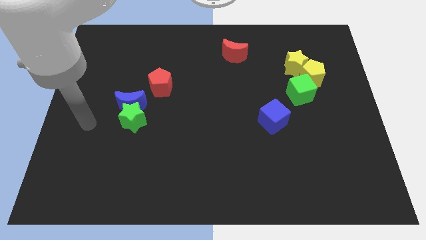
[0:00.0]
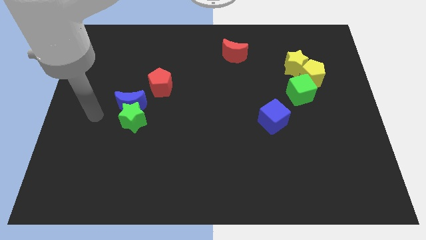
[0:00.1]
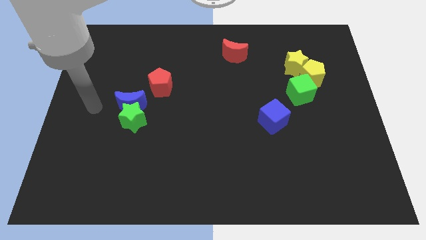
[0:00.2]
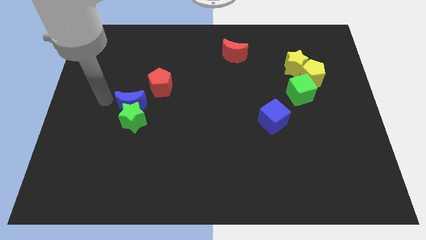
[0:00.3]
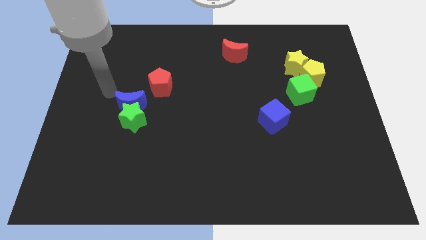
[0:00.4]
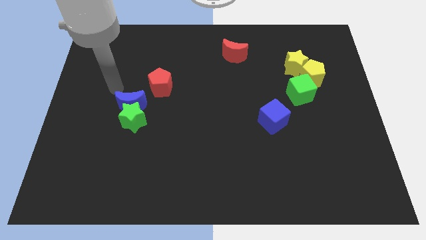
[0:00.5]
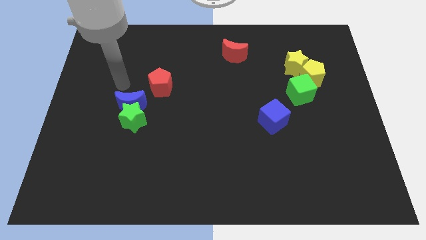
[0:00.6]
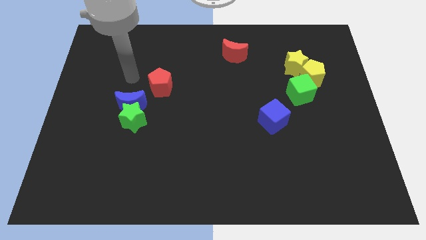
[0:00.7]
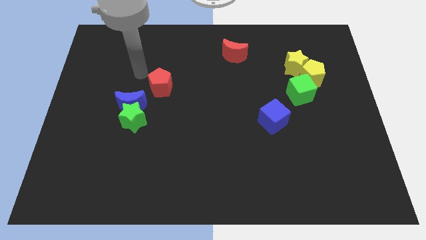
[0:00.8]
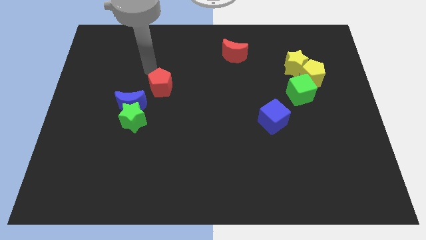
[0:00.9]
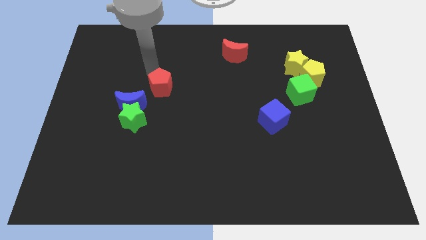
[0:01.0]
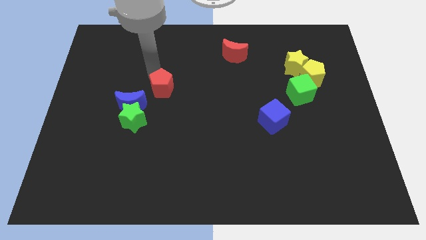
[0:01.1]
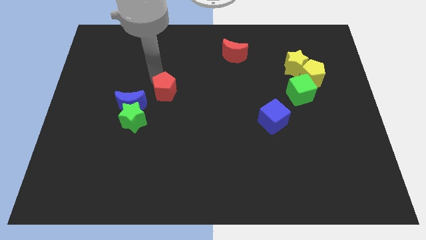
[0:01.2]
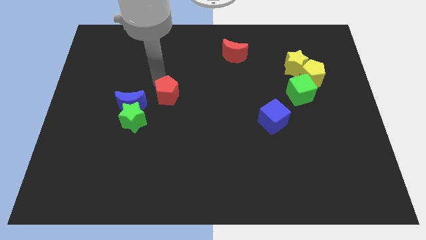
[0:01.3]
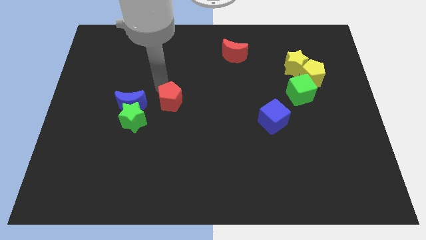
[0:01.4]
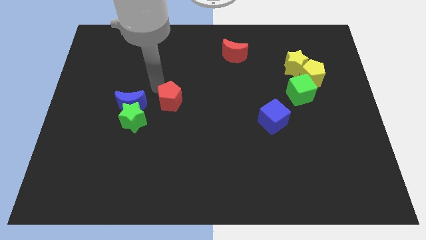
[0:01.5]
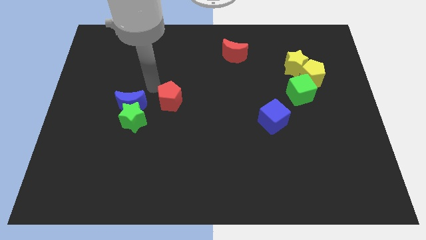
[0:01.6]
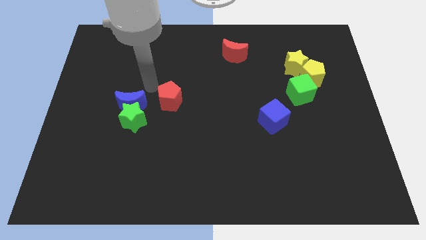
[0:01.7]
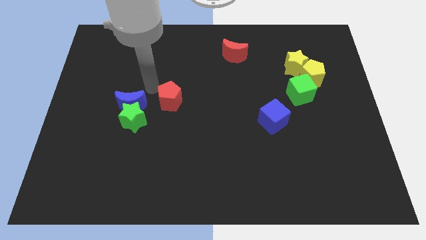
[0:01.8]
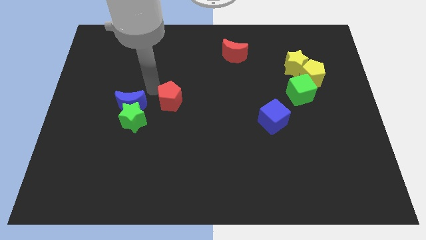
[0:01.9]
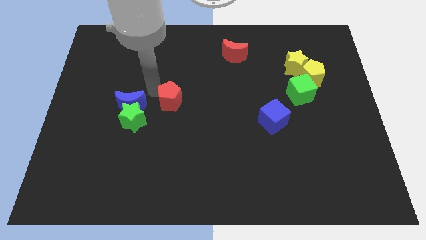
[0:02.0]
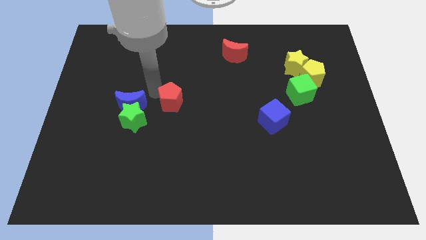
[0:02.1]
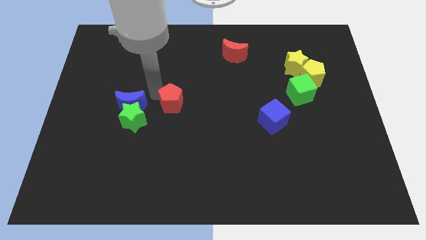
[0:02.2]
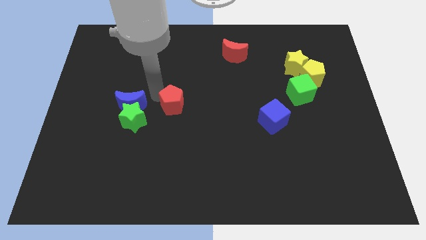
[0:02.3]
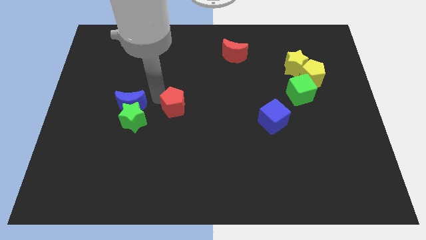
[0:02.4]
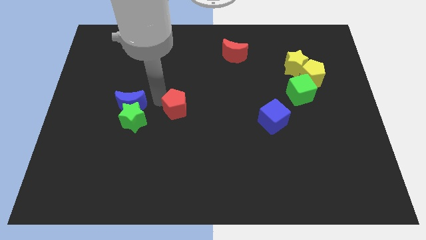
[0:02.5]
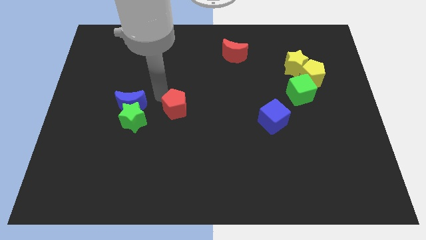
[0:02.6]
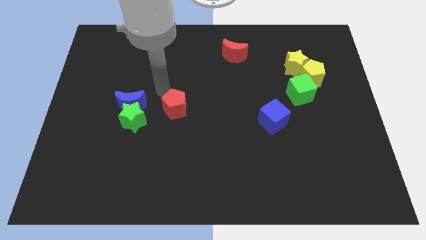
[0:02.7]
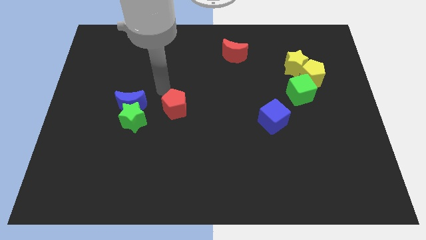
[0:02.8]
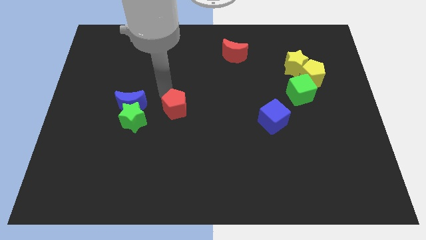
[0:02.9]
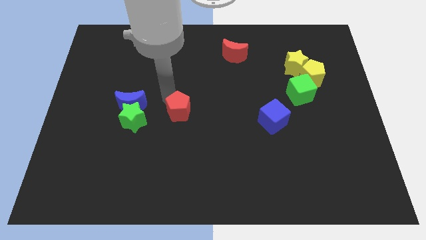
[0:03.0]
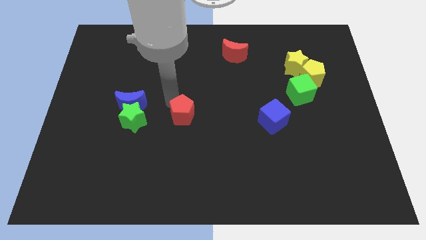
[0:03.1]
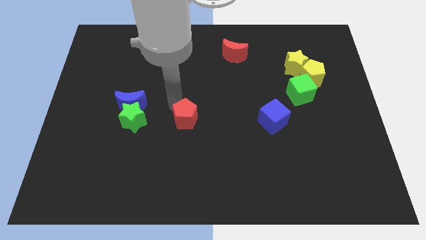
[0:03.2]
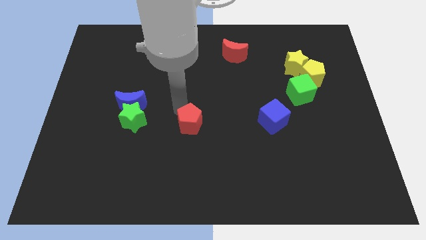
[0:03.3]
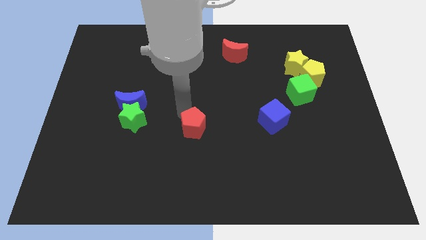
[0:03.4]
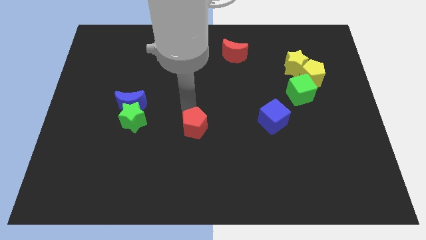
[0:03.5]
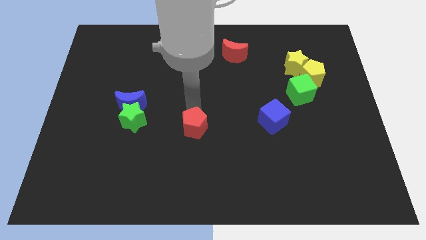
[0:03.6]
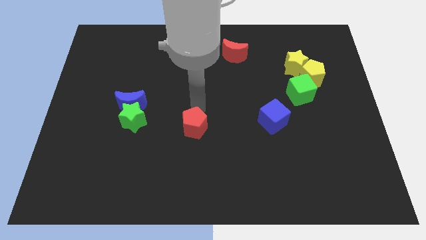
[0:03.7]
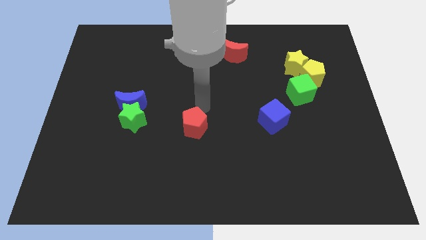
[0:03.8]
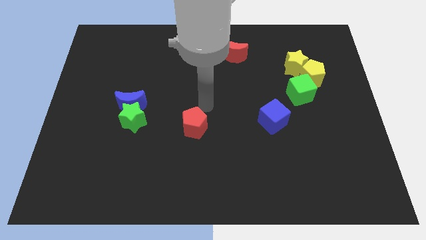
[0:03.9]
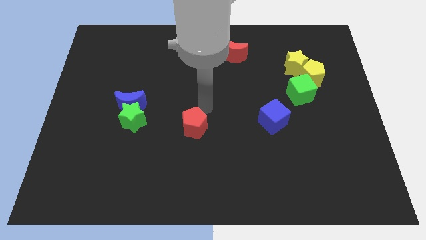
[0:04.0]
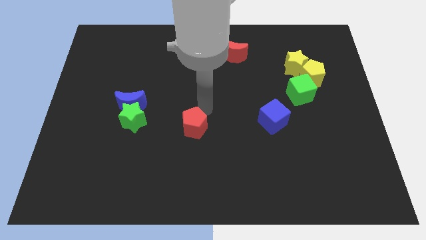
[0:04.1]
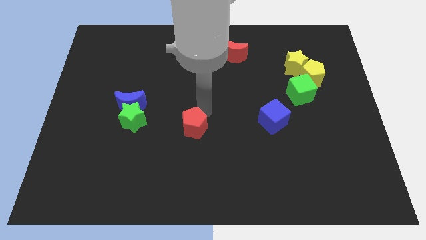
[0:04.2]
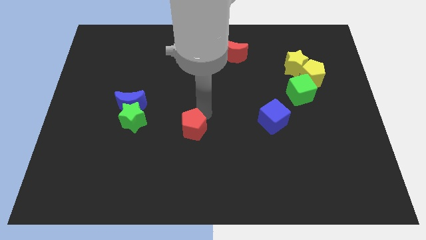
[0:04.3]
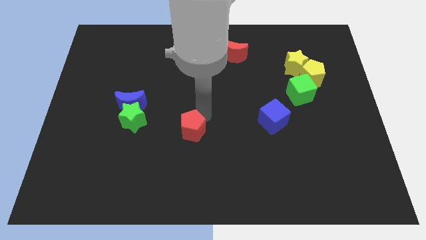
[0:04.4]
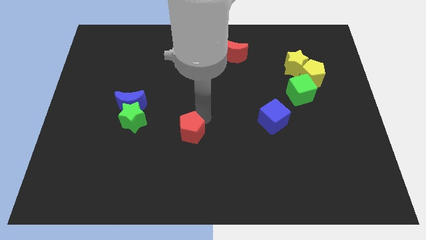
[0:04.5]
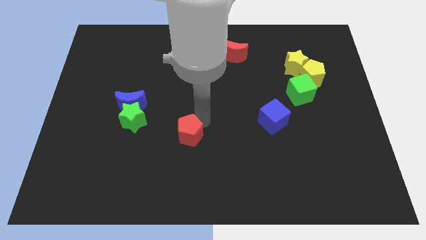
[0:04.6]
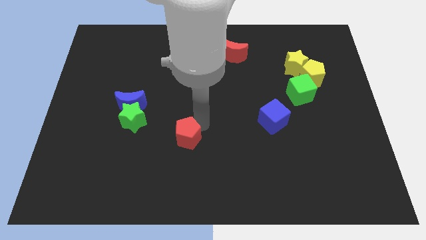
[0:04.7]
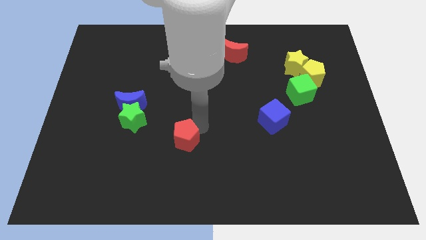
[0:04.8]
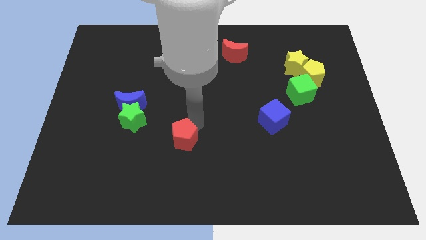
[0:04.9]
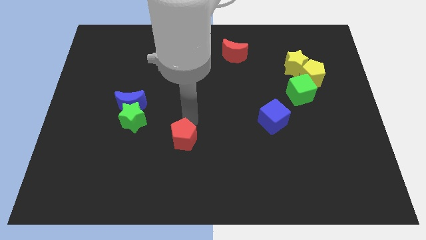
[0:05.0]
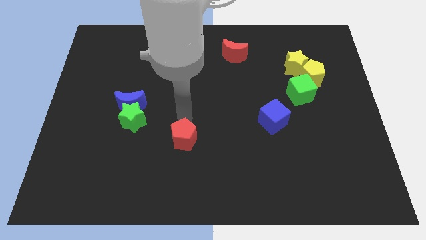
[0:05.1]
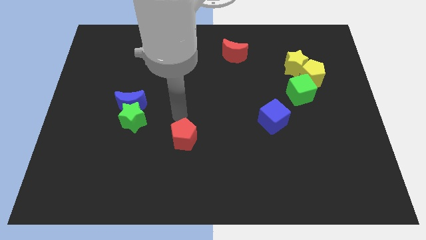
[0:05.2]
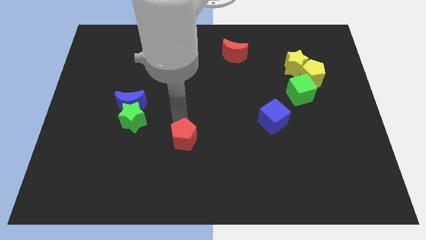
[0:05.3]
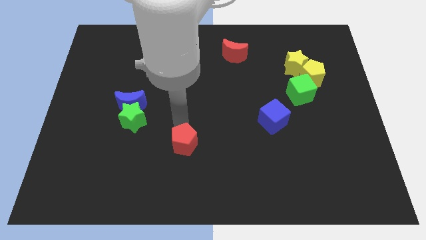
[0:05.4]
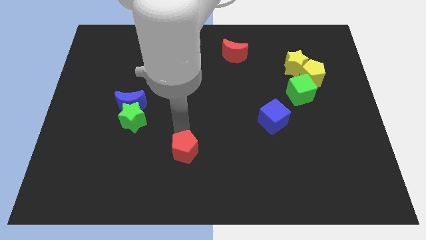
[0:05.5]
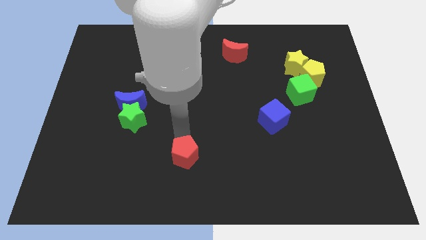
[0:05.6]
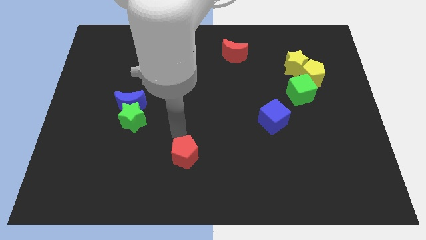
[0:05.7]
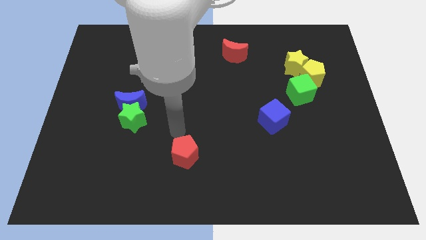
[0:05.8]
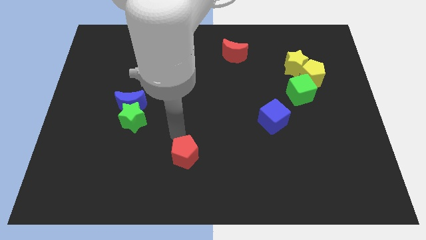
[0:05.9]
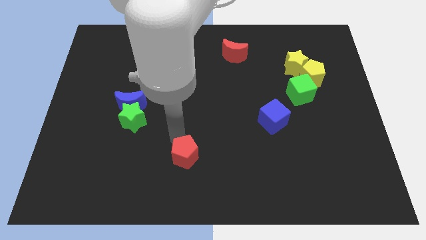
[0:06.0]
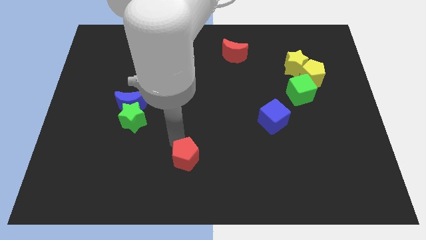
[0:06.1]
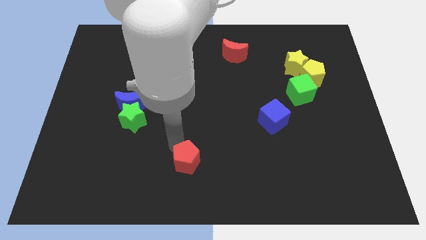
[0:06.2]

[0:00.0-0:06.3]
move the red pentagon to the bottom

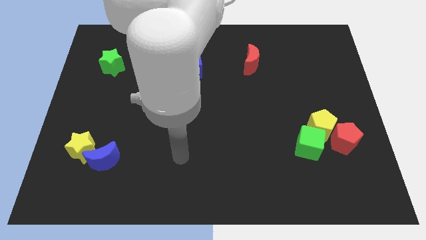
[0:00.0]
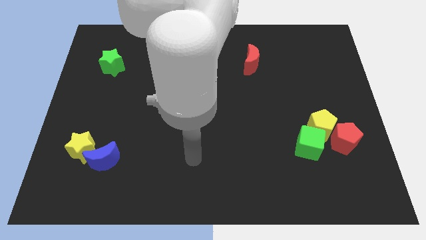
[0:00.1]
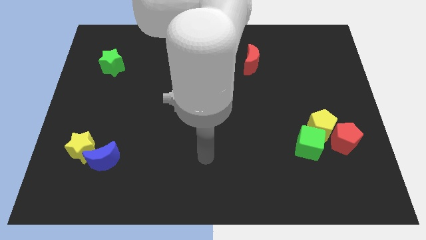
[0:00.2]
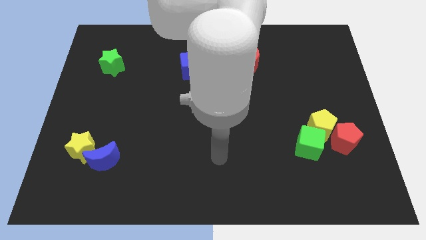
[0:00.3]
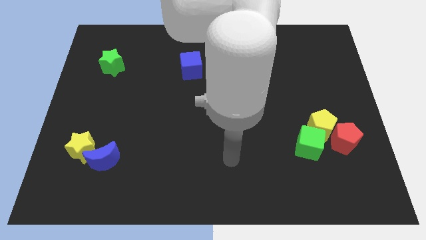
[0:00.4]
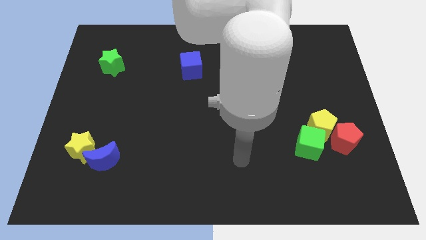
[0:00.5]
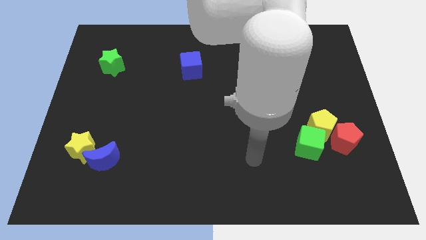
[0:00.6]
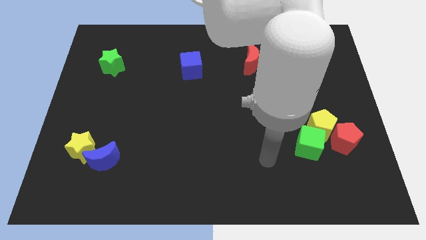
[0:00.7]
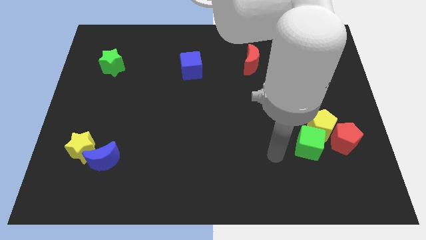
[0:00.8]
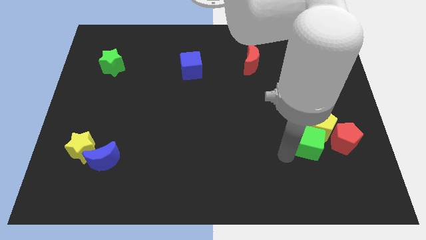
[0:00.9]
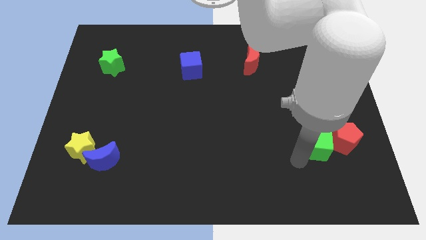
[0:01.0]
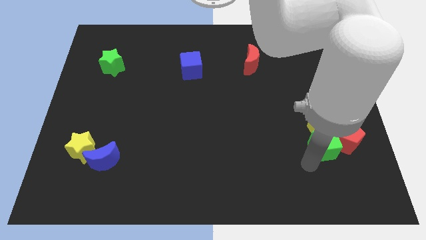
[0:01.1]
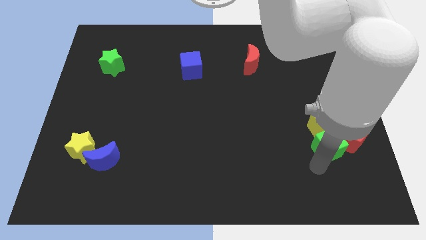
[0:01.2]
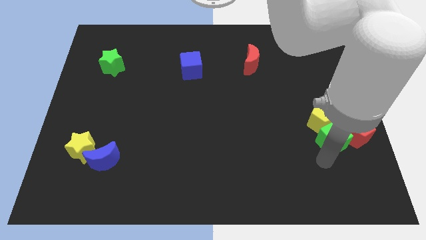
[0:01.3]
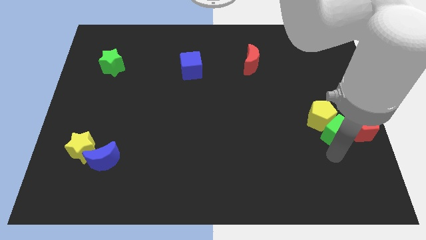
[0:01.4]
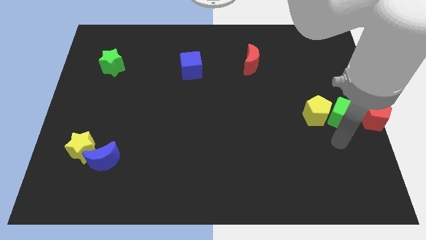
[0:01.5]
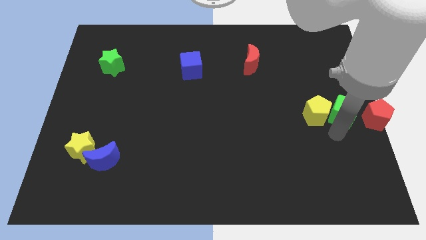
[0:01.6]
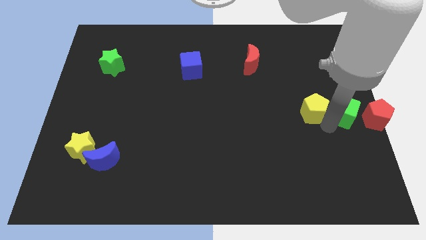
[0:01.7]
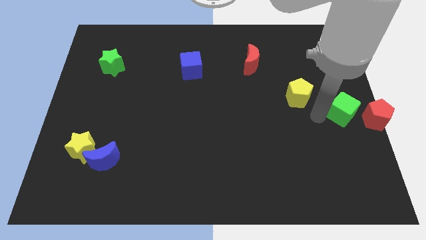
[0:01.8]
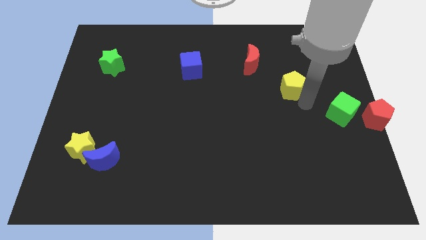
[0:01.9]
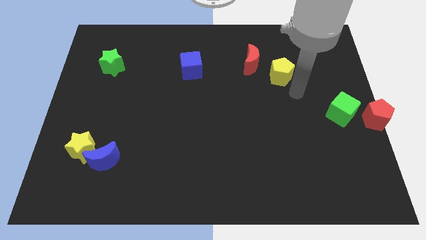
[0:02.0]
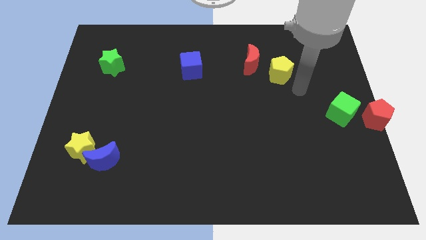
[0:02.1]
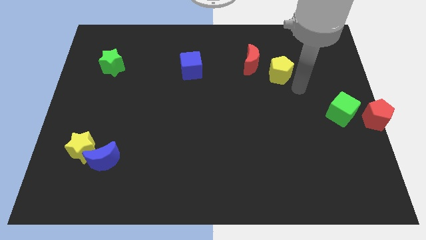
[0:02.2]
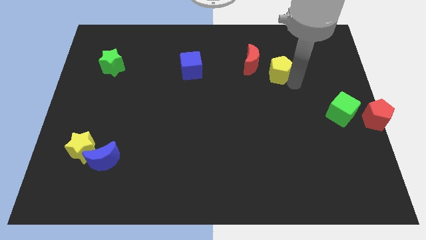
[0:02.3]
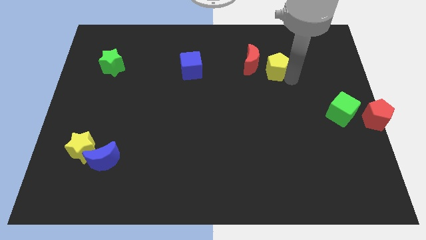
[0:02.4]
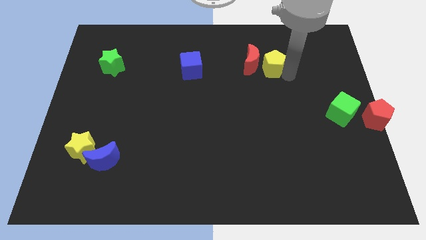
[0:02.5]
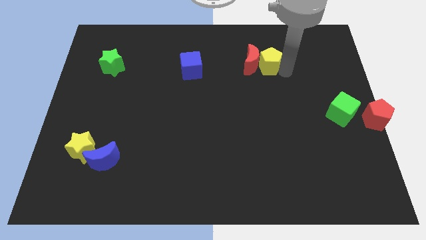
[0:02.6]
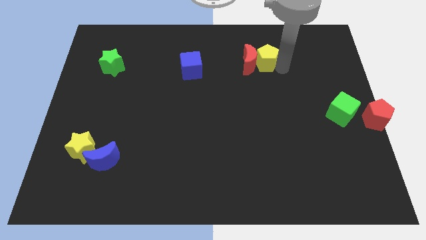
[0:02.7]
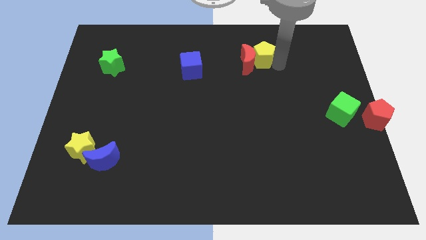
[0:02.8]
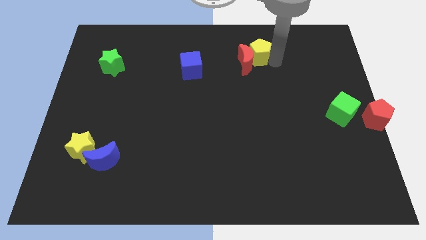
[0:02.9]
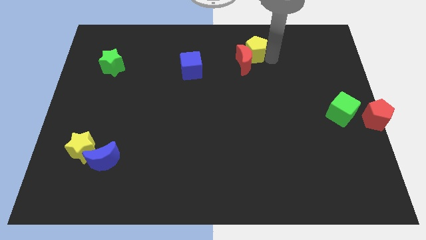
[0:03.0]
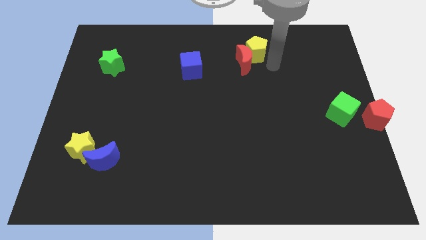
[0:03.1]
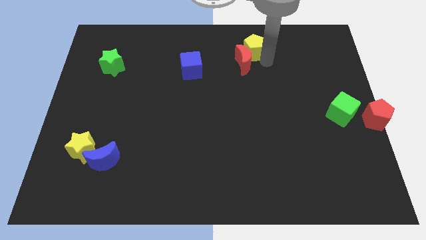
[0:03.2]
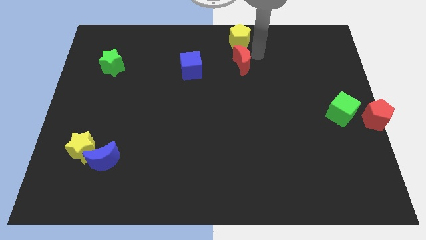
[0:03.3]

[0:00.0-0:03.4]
push the yellow pentagon to the top
